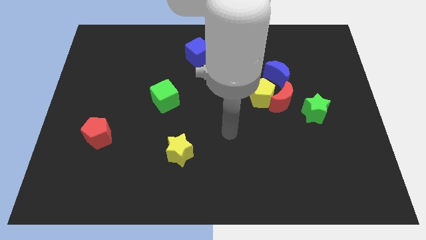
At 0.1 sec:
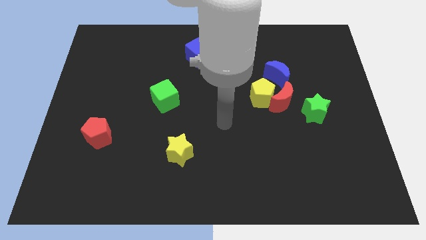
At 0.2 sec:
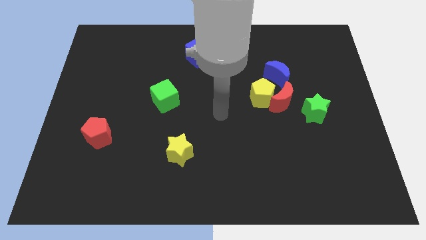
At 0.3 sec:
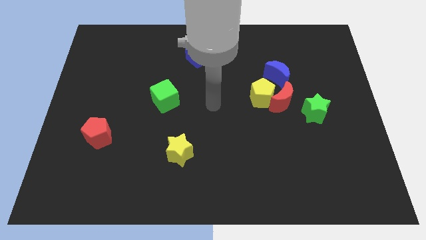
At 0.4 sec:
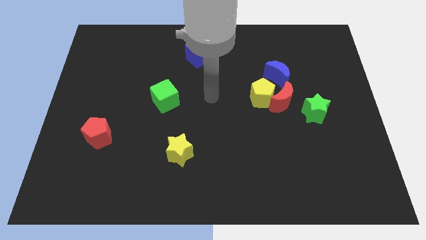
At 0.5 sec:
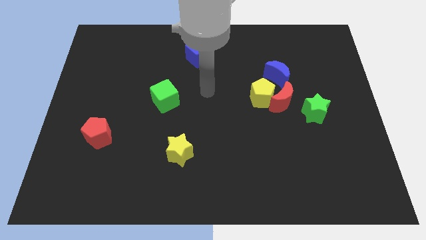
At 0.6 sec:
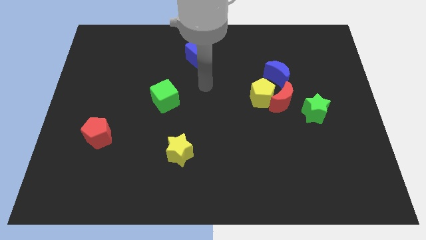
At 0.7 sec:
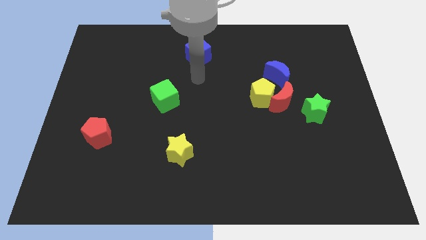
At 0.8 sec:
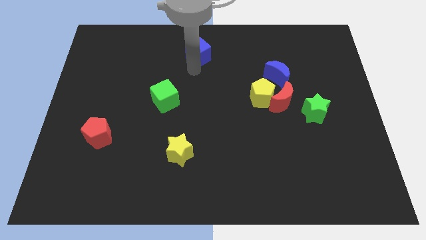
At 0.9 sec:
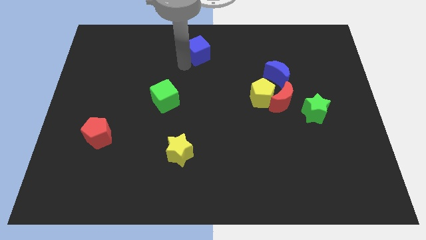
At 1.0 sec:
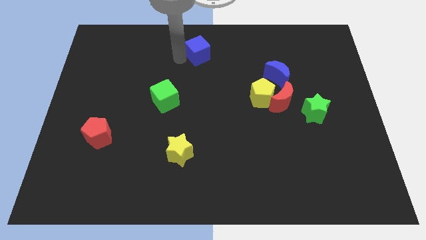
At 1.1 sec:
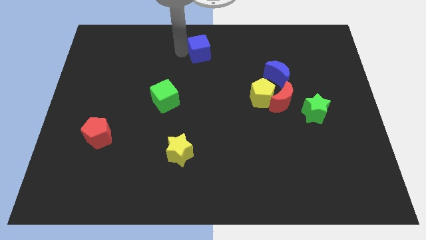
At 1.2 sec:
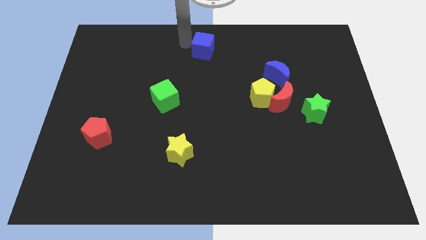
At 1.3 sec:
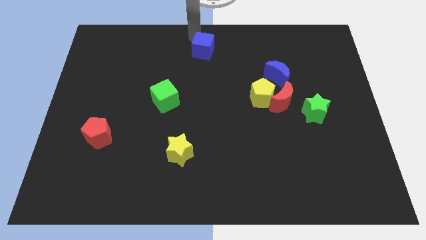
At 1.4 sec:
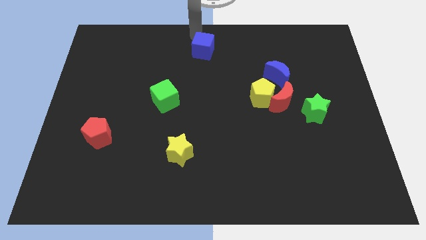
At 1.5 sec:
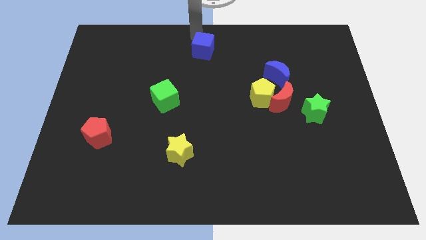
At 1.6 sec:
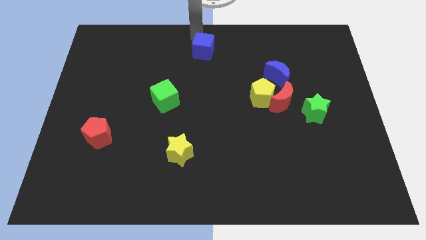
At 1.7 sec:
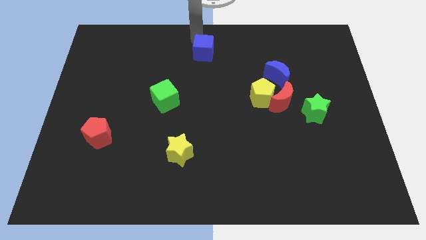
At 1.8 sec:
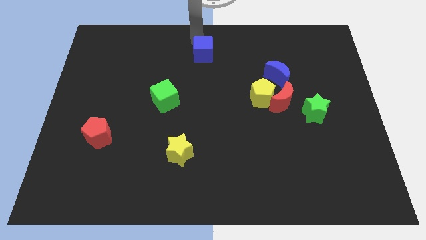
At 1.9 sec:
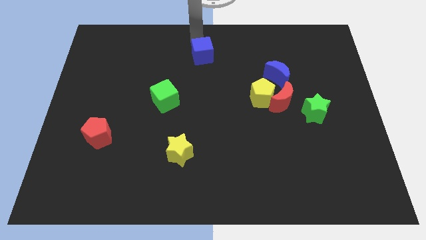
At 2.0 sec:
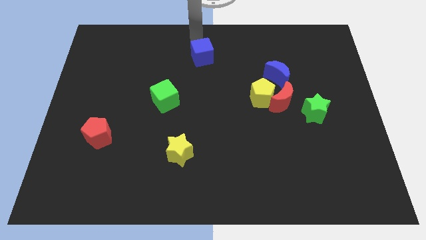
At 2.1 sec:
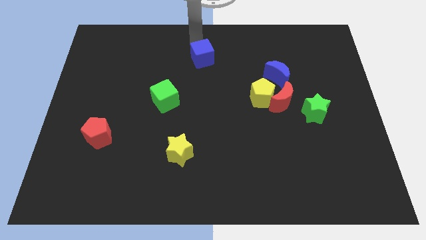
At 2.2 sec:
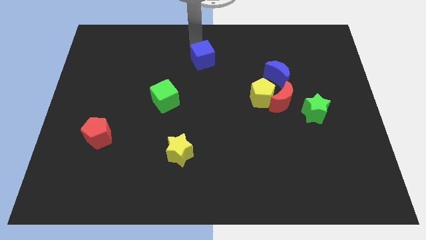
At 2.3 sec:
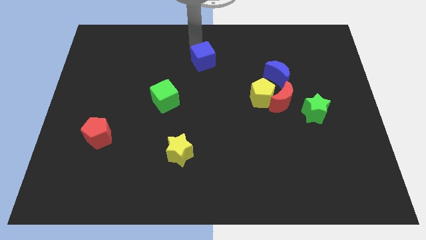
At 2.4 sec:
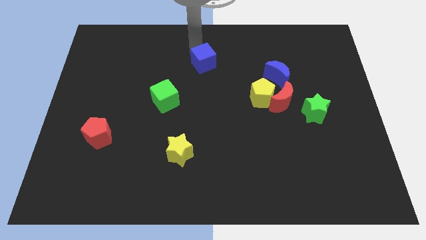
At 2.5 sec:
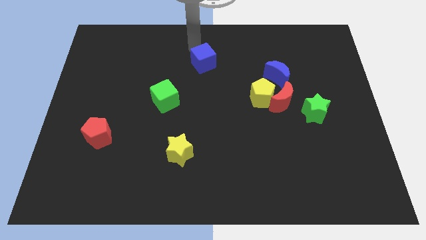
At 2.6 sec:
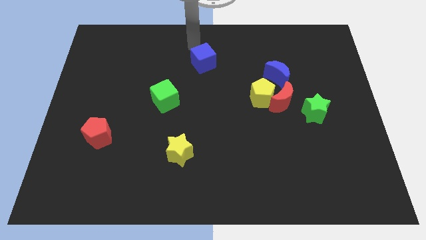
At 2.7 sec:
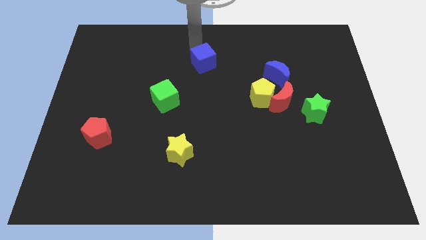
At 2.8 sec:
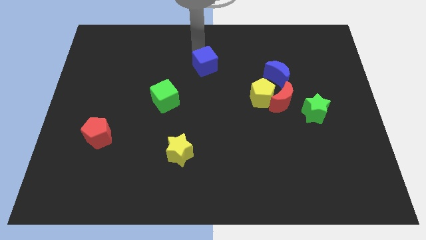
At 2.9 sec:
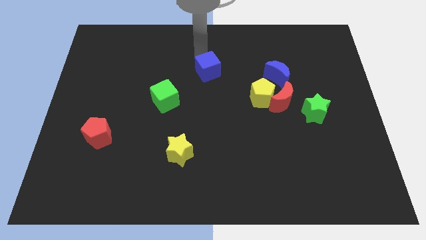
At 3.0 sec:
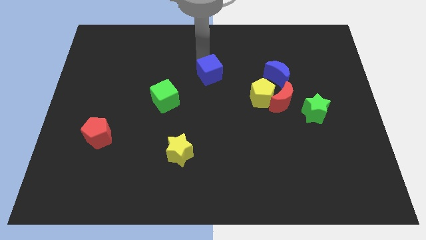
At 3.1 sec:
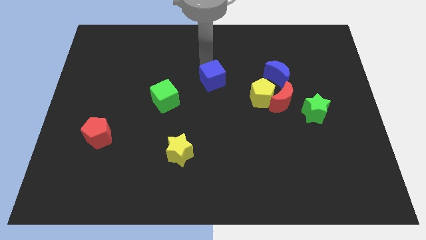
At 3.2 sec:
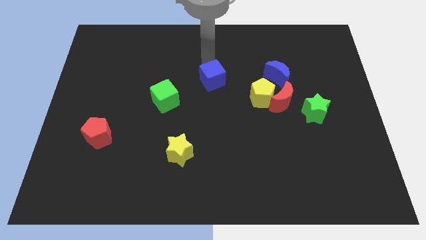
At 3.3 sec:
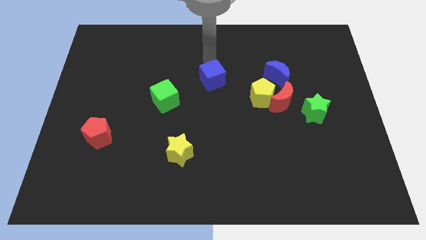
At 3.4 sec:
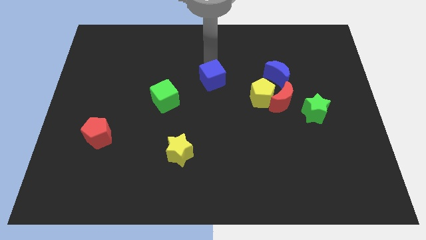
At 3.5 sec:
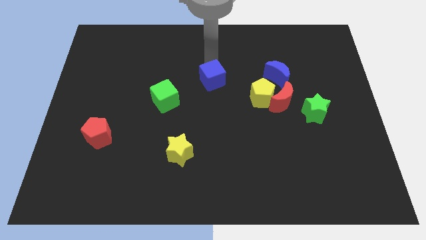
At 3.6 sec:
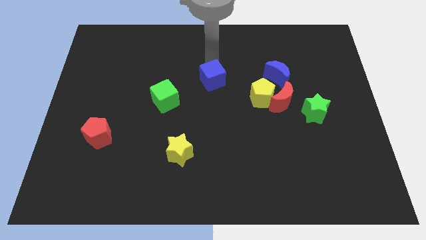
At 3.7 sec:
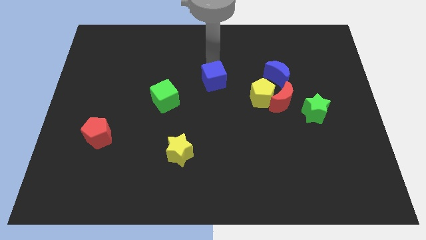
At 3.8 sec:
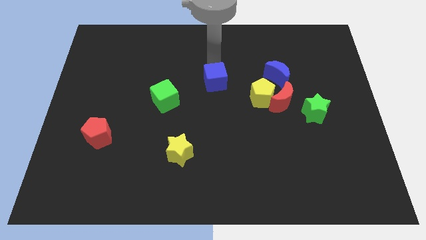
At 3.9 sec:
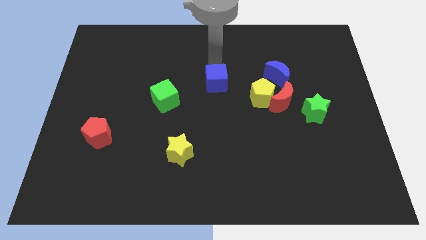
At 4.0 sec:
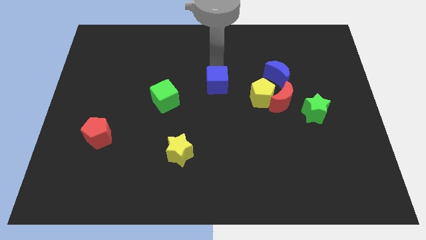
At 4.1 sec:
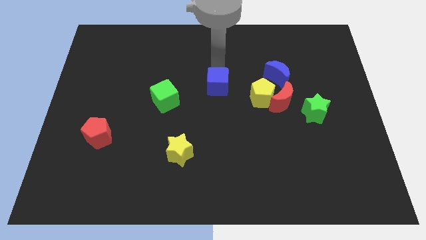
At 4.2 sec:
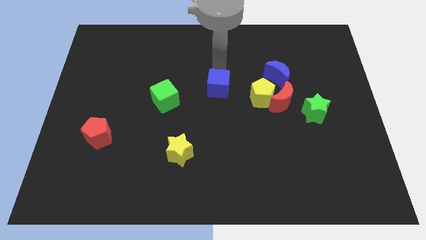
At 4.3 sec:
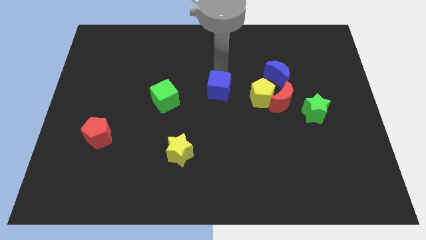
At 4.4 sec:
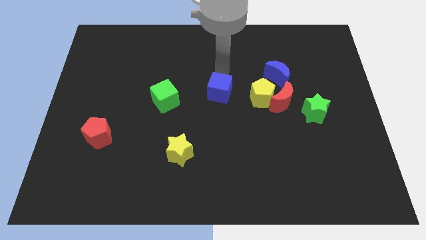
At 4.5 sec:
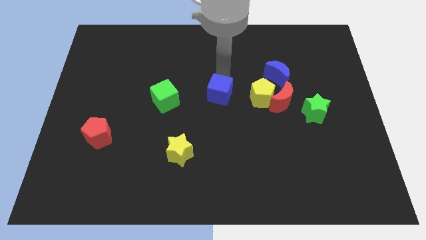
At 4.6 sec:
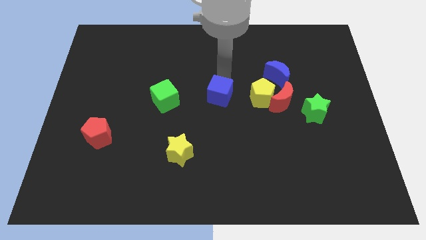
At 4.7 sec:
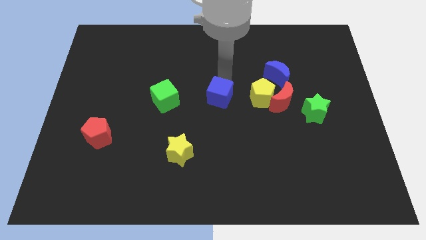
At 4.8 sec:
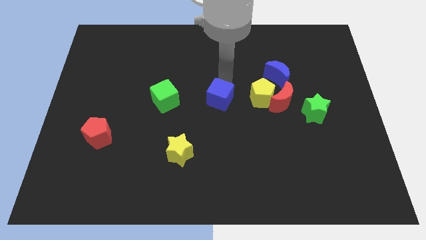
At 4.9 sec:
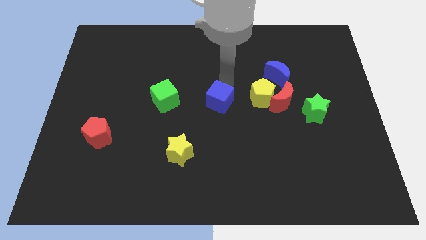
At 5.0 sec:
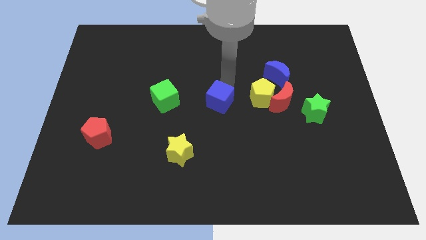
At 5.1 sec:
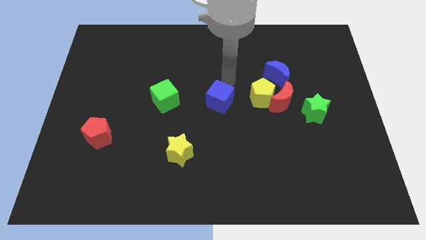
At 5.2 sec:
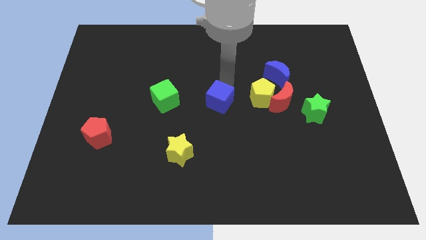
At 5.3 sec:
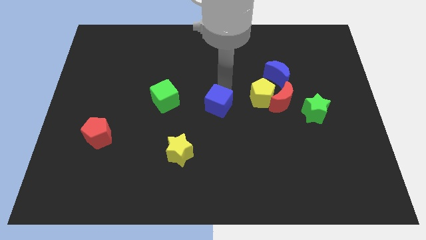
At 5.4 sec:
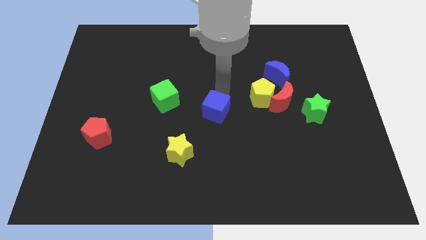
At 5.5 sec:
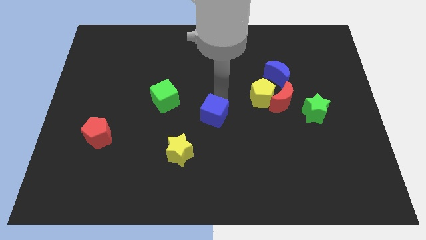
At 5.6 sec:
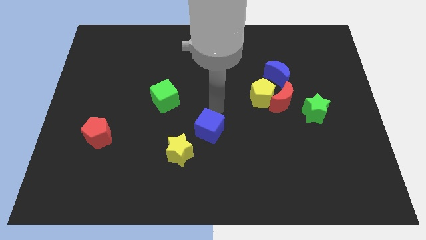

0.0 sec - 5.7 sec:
push the blue cube downwards

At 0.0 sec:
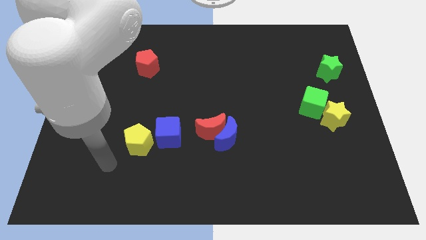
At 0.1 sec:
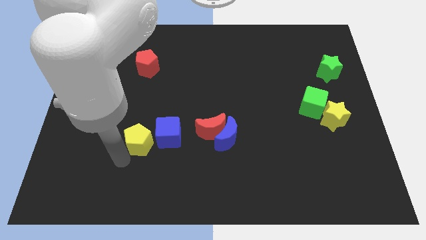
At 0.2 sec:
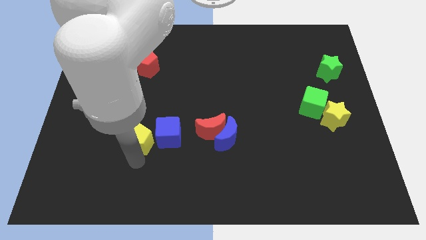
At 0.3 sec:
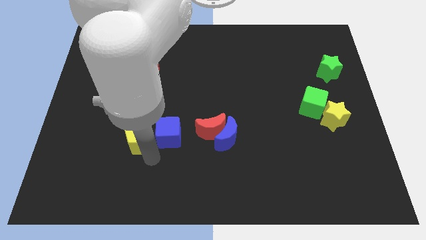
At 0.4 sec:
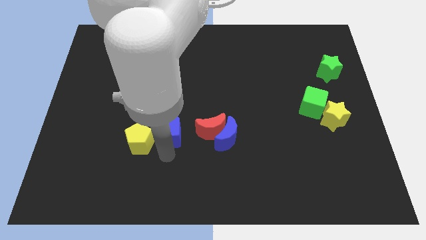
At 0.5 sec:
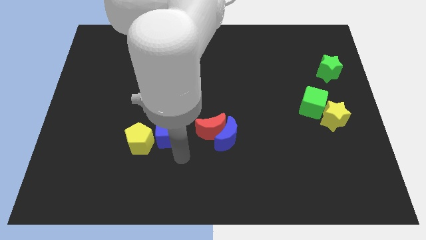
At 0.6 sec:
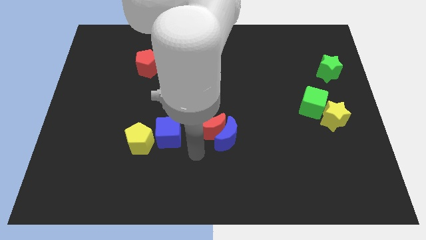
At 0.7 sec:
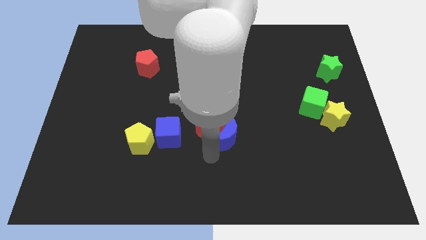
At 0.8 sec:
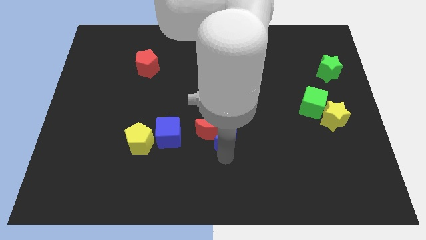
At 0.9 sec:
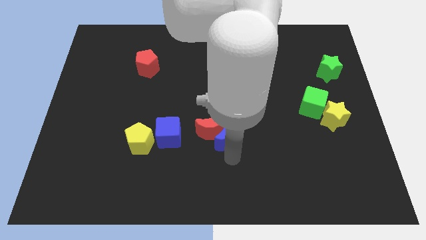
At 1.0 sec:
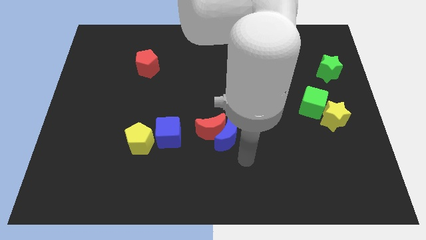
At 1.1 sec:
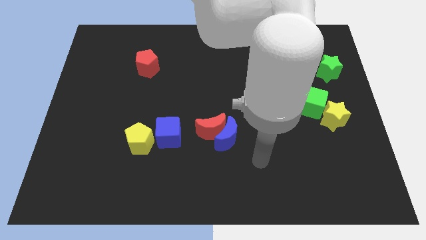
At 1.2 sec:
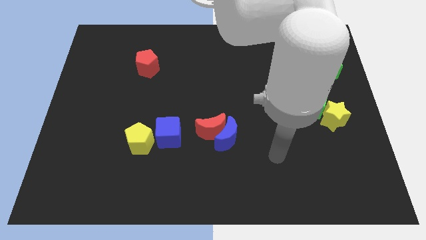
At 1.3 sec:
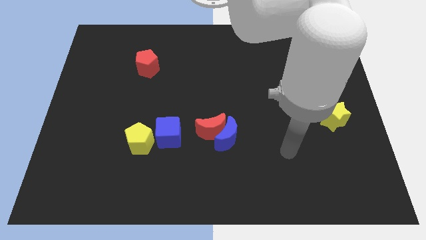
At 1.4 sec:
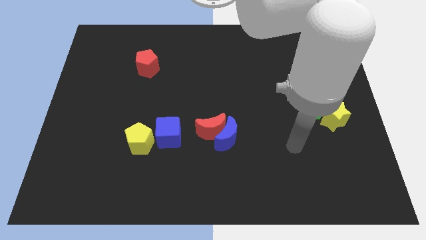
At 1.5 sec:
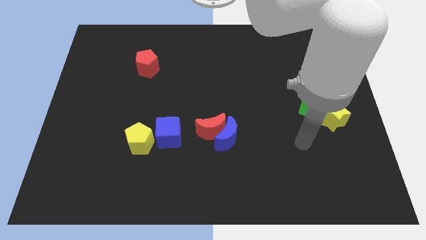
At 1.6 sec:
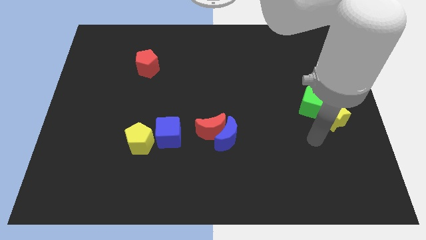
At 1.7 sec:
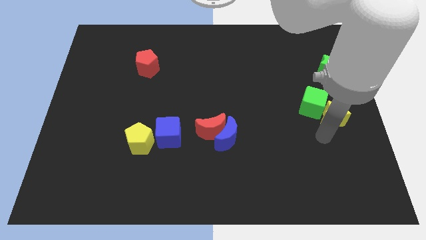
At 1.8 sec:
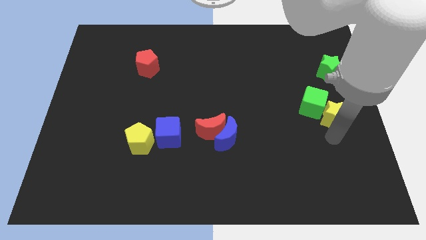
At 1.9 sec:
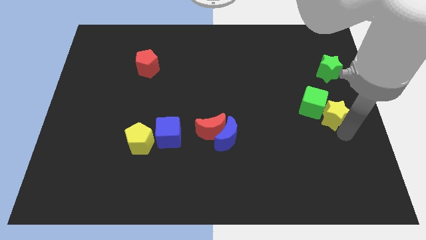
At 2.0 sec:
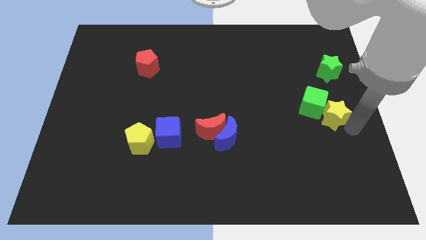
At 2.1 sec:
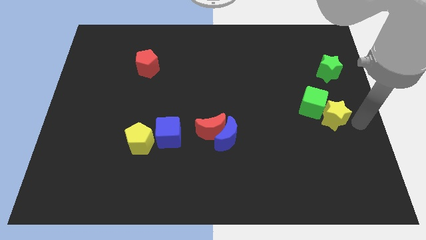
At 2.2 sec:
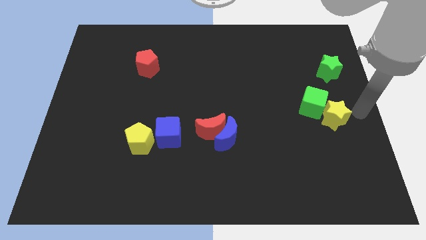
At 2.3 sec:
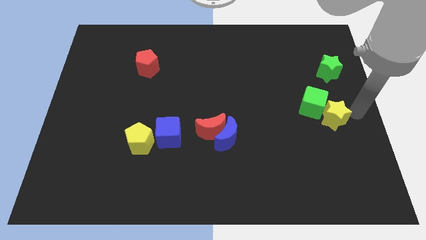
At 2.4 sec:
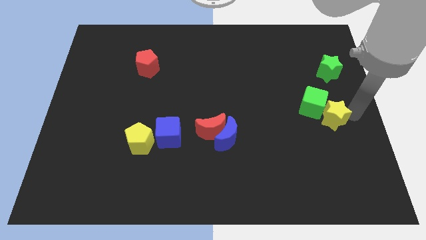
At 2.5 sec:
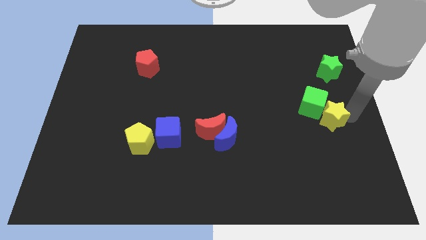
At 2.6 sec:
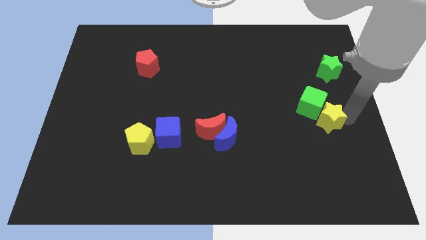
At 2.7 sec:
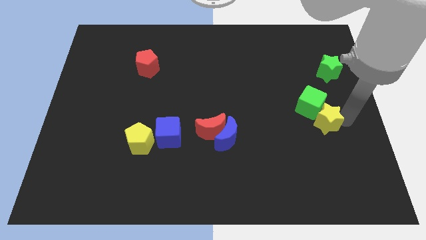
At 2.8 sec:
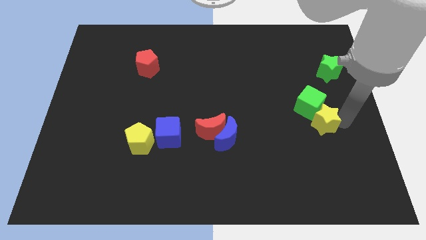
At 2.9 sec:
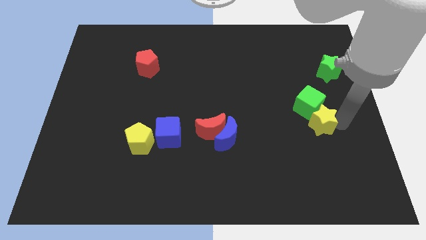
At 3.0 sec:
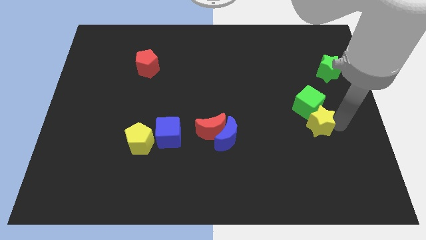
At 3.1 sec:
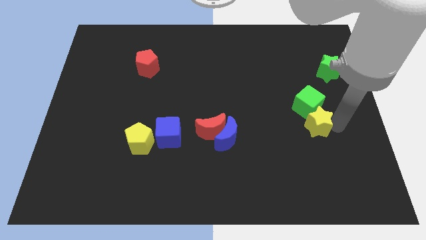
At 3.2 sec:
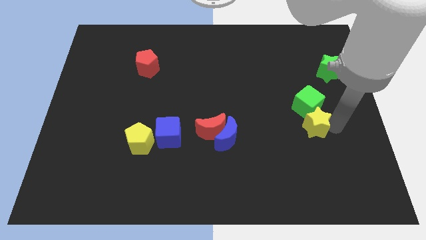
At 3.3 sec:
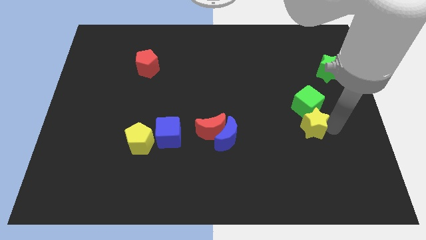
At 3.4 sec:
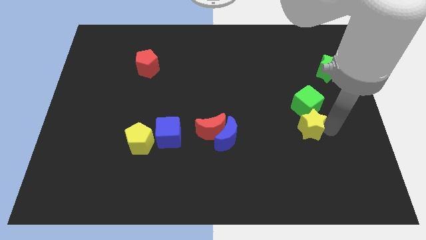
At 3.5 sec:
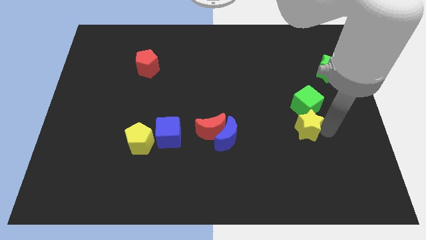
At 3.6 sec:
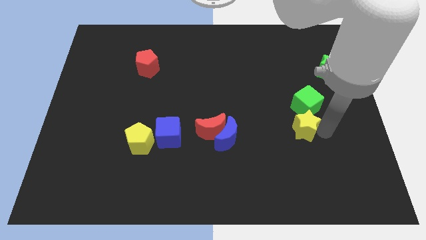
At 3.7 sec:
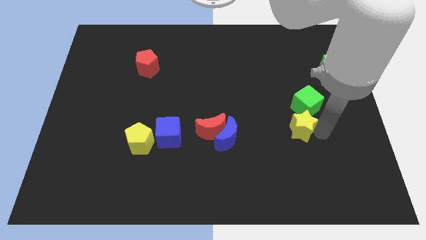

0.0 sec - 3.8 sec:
slide the yellow star somewhat to the left
